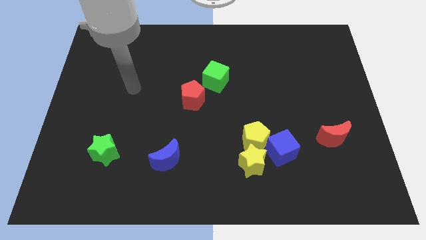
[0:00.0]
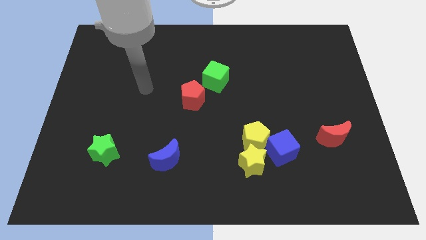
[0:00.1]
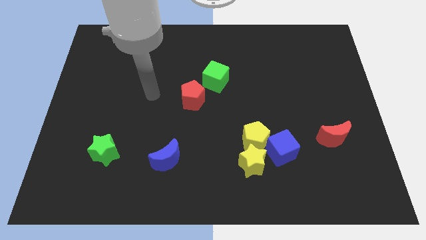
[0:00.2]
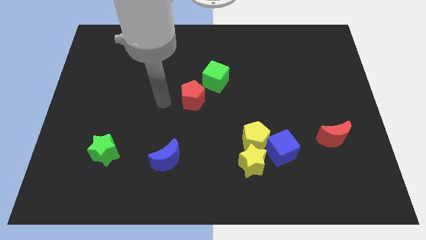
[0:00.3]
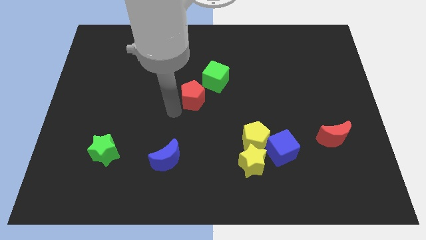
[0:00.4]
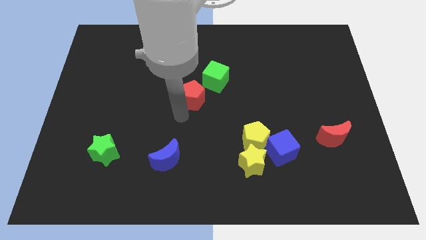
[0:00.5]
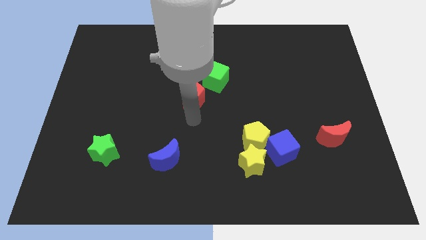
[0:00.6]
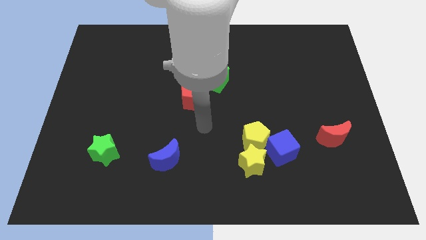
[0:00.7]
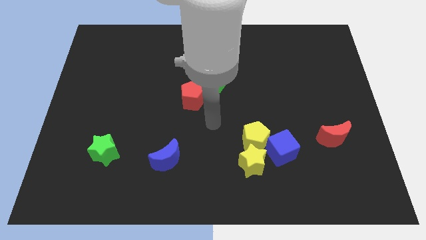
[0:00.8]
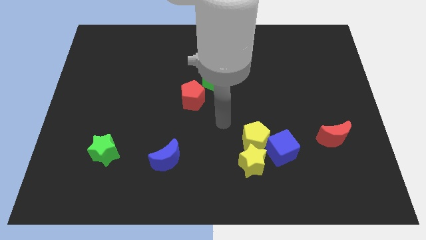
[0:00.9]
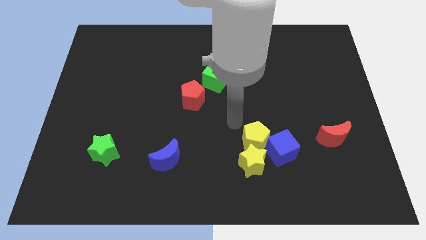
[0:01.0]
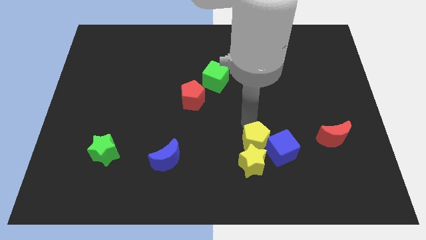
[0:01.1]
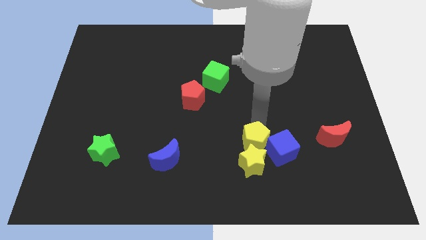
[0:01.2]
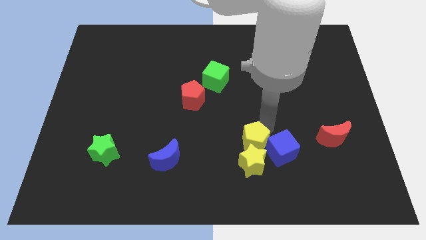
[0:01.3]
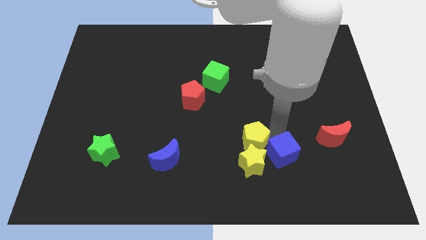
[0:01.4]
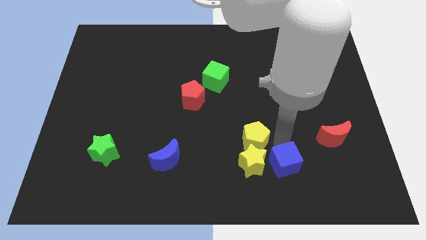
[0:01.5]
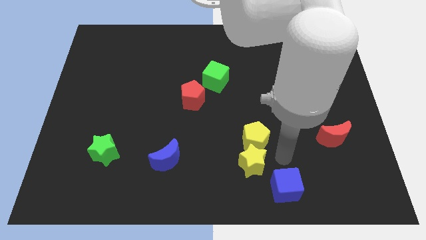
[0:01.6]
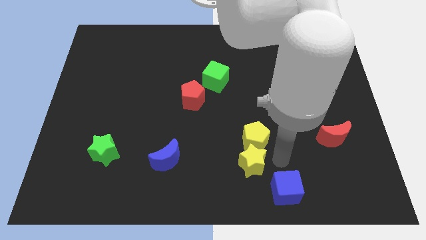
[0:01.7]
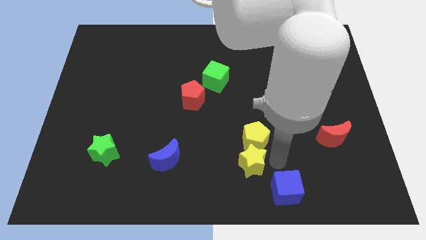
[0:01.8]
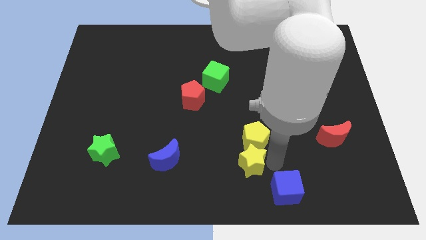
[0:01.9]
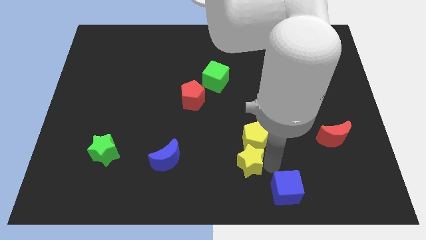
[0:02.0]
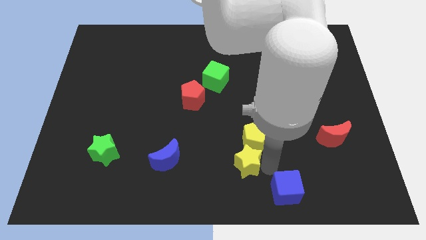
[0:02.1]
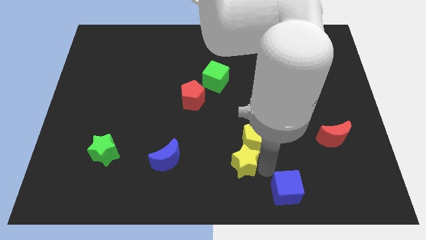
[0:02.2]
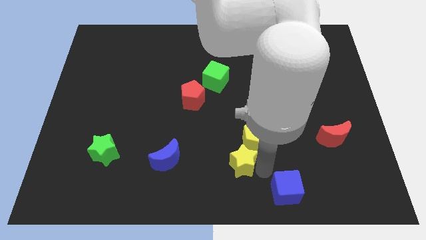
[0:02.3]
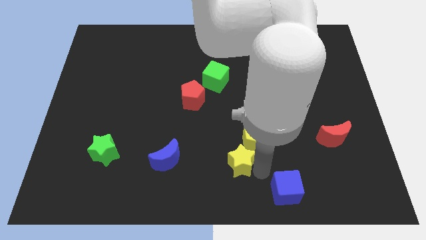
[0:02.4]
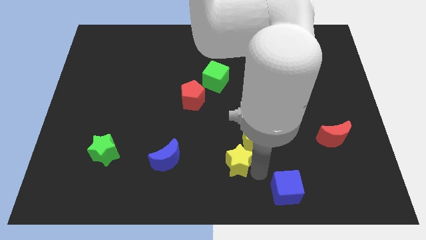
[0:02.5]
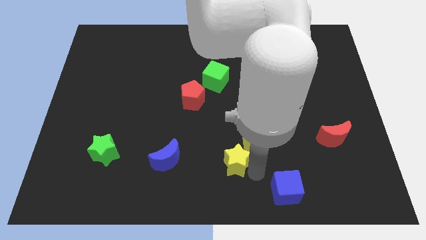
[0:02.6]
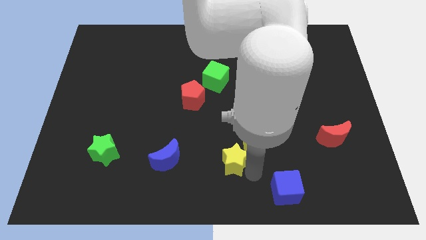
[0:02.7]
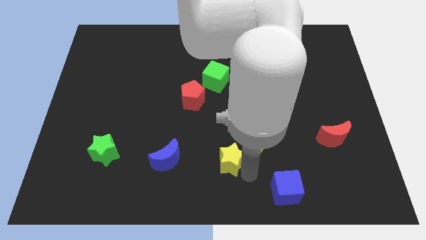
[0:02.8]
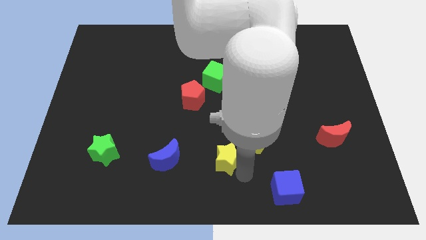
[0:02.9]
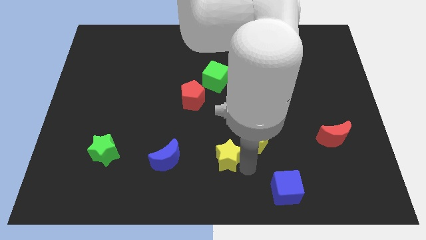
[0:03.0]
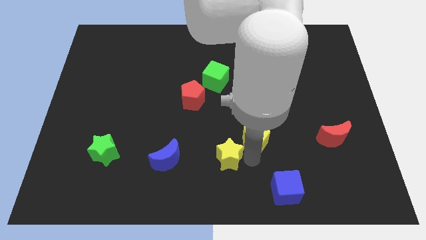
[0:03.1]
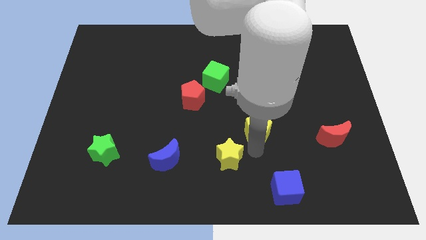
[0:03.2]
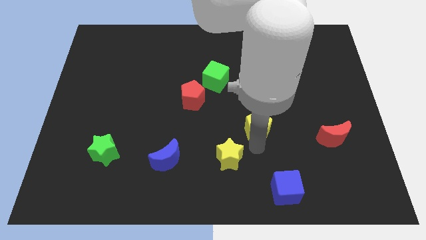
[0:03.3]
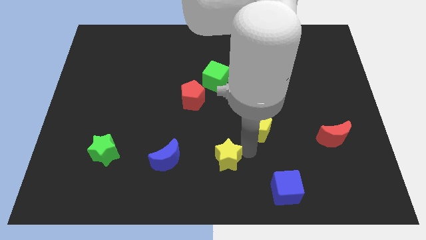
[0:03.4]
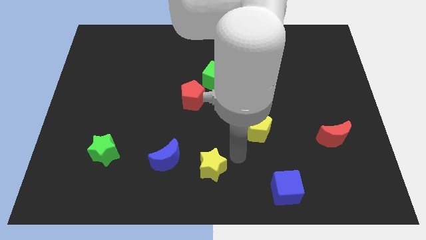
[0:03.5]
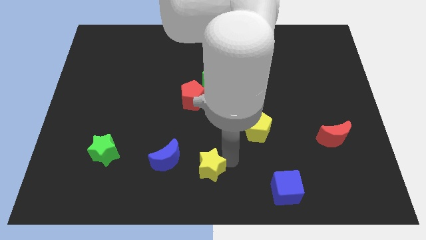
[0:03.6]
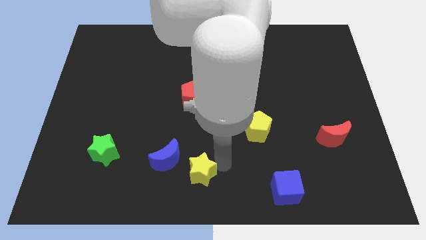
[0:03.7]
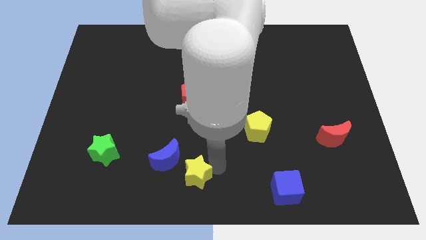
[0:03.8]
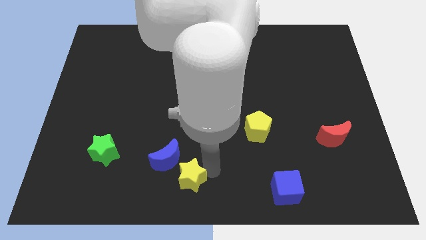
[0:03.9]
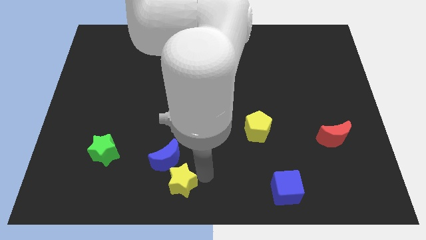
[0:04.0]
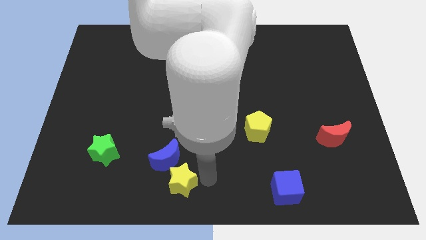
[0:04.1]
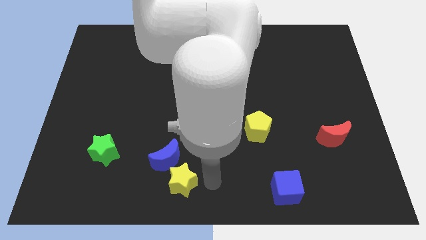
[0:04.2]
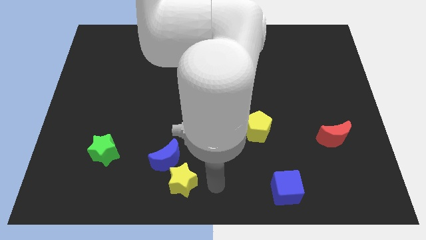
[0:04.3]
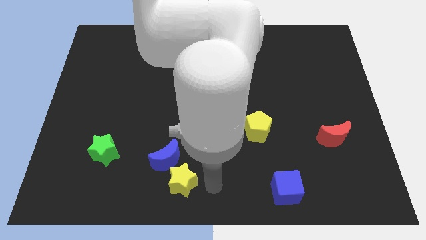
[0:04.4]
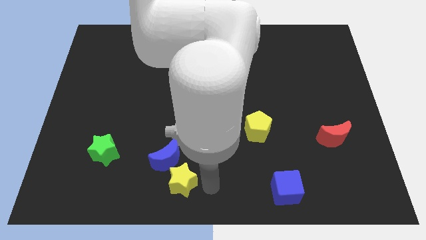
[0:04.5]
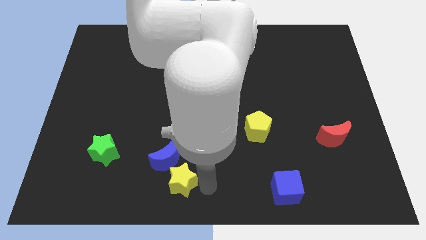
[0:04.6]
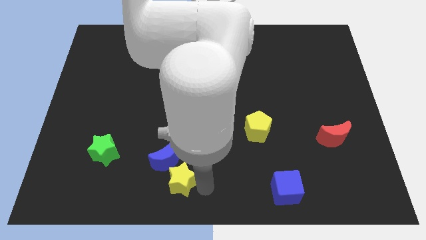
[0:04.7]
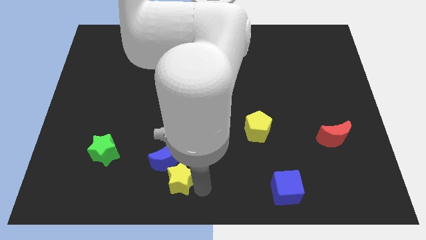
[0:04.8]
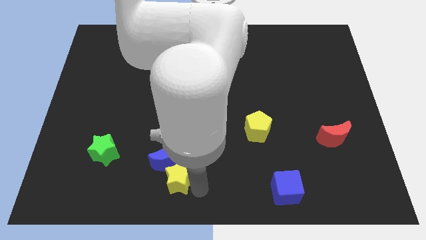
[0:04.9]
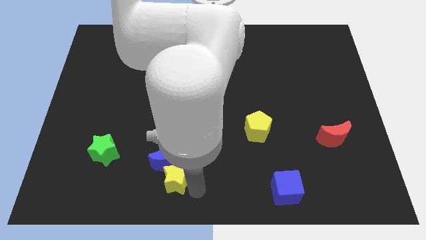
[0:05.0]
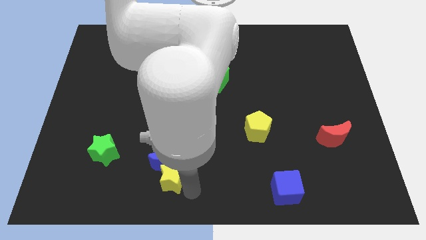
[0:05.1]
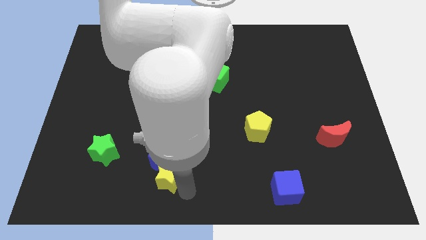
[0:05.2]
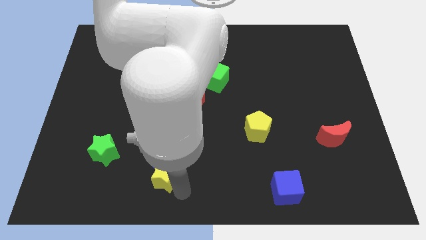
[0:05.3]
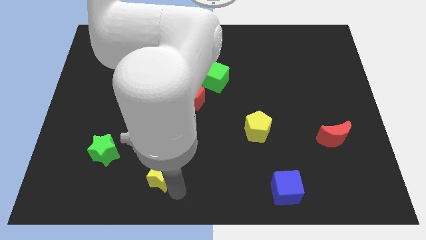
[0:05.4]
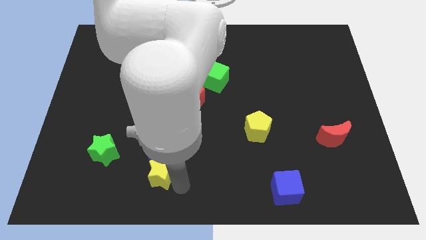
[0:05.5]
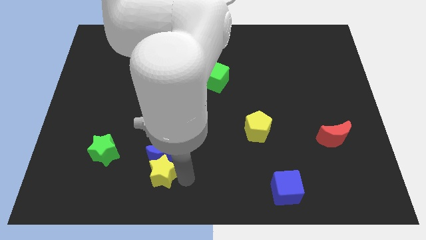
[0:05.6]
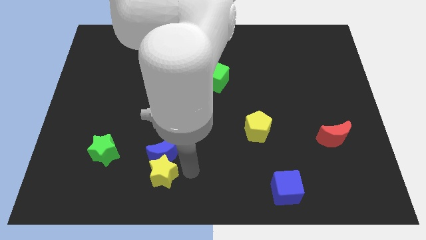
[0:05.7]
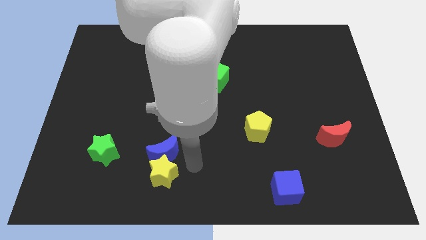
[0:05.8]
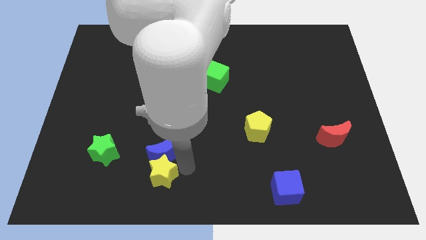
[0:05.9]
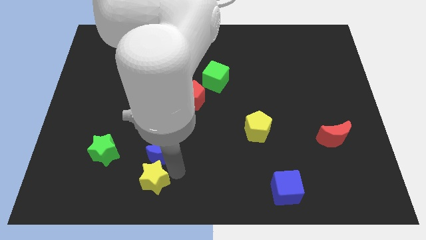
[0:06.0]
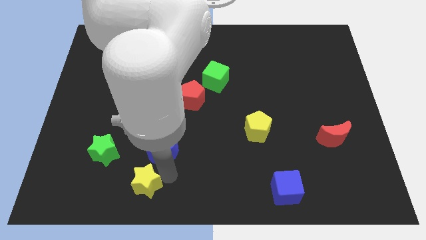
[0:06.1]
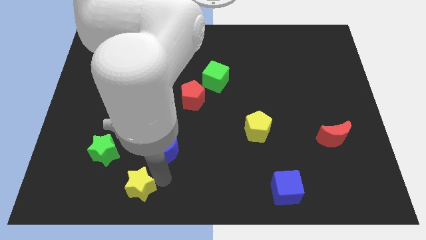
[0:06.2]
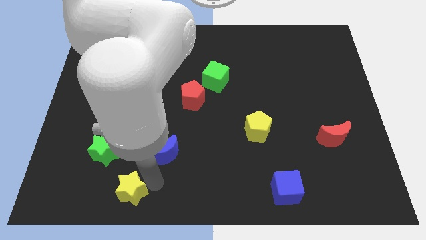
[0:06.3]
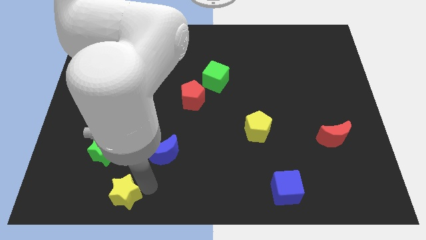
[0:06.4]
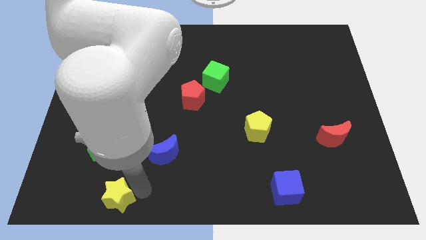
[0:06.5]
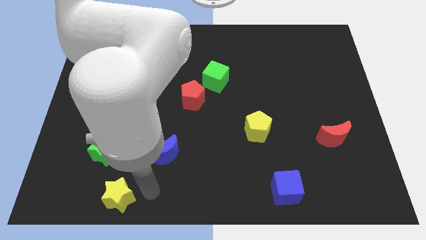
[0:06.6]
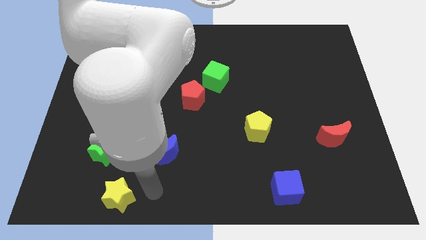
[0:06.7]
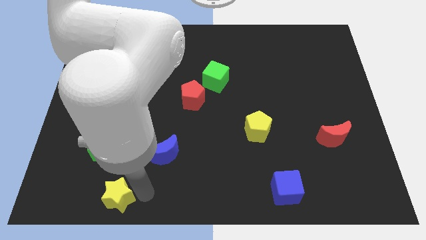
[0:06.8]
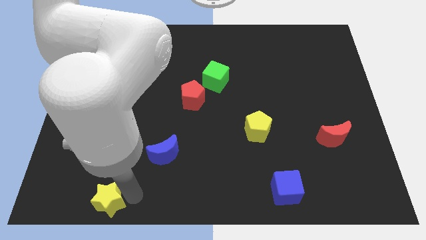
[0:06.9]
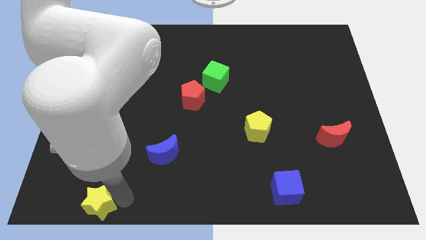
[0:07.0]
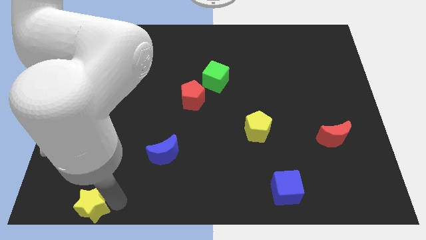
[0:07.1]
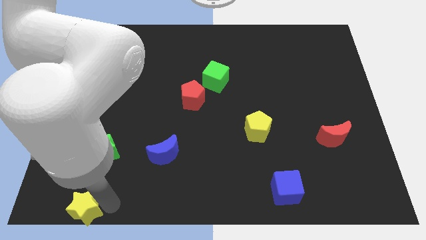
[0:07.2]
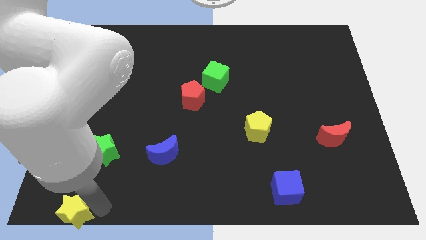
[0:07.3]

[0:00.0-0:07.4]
push the yellow star to the bottom left

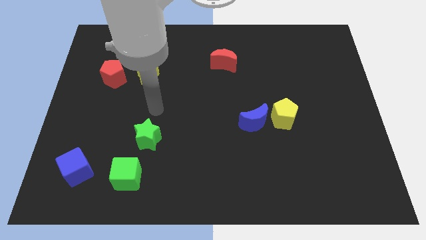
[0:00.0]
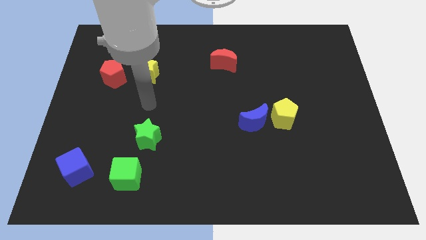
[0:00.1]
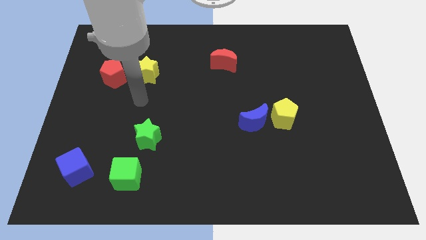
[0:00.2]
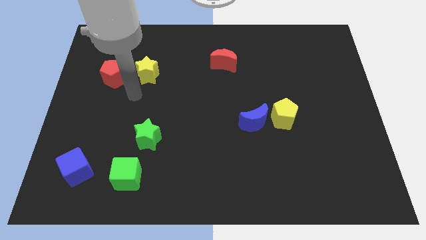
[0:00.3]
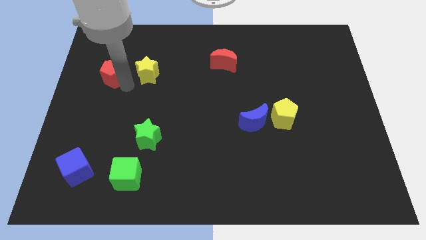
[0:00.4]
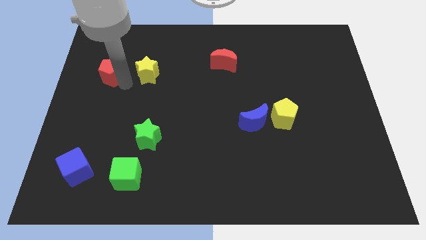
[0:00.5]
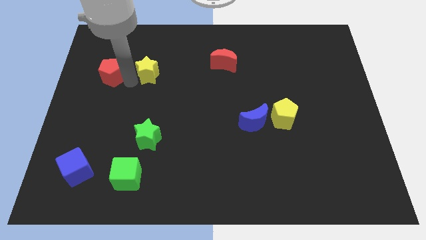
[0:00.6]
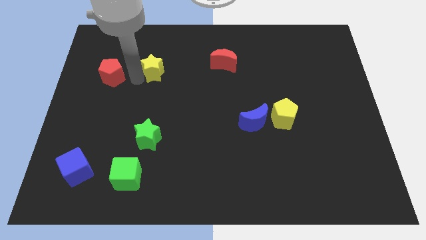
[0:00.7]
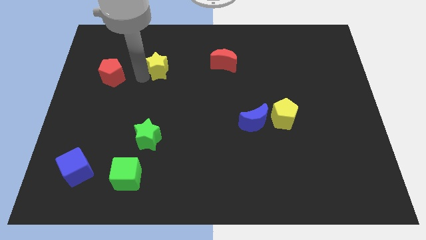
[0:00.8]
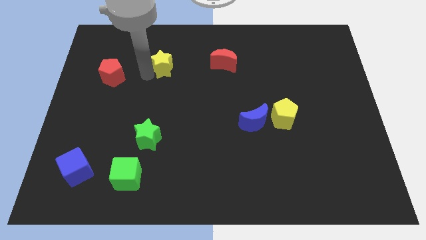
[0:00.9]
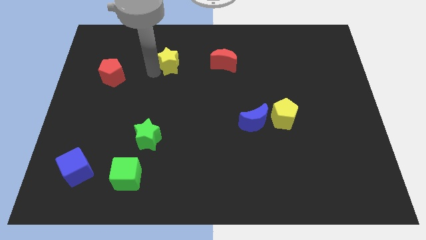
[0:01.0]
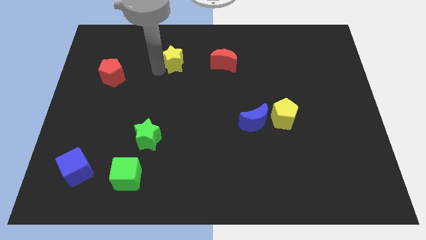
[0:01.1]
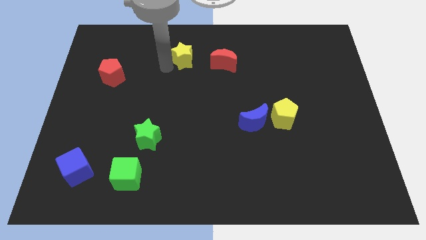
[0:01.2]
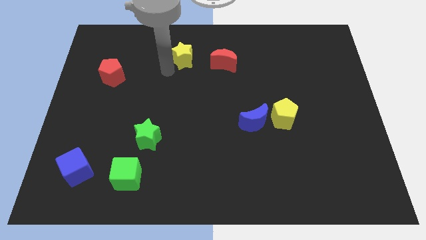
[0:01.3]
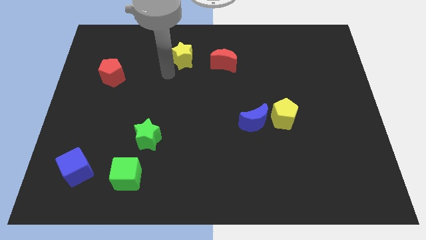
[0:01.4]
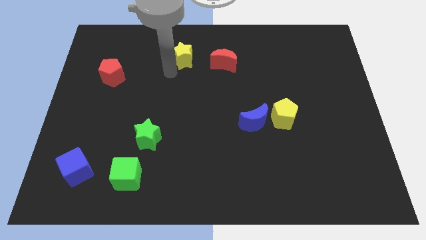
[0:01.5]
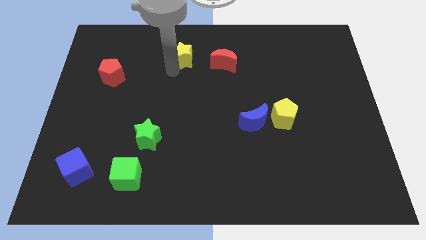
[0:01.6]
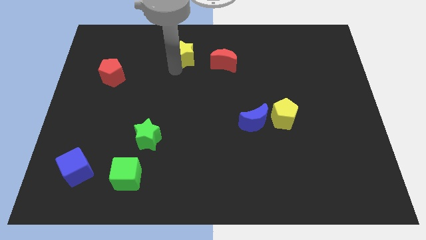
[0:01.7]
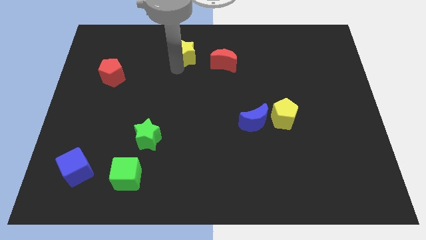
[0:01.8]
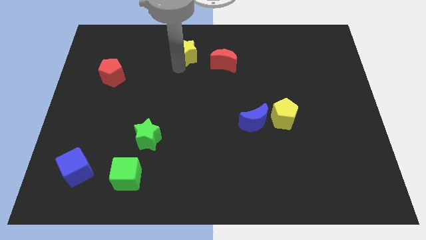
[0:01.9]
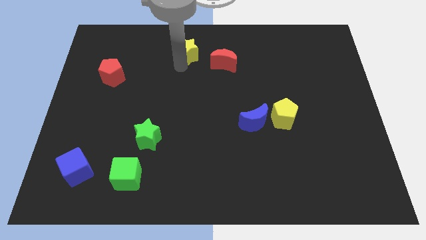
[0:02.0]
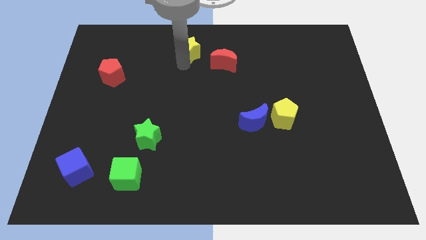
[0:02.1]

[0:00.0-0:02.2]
put the yellow star to the top
